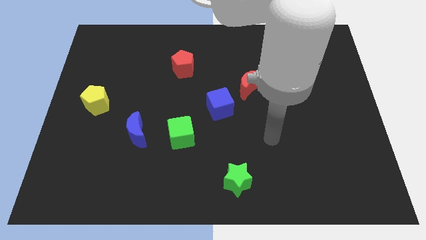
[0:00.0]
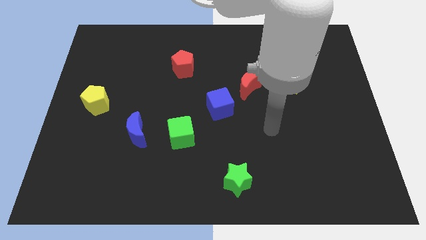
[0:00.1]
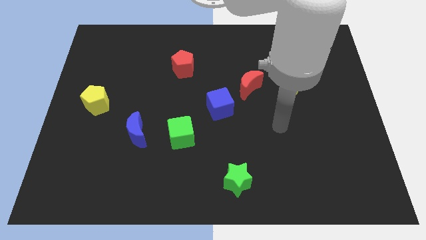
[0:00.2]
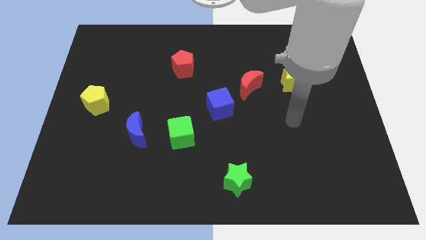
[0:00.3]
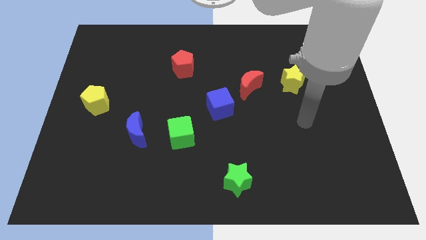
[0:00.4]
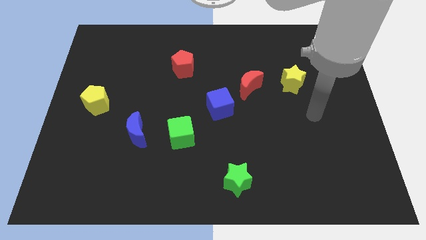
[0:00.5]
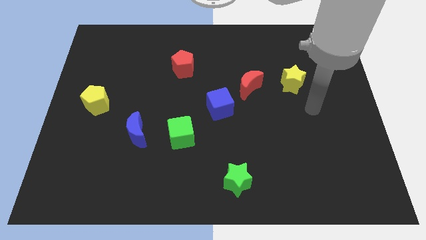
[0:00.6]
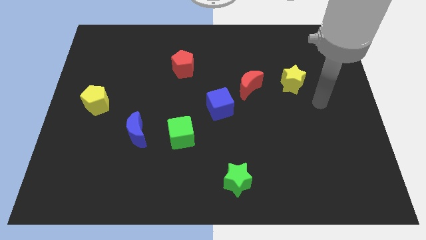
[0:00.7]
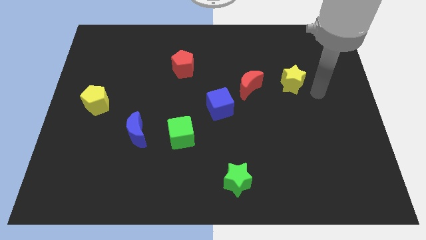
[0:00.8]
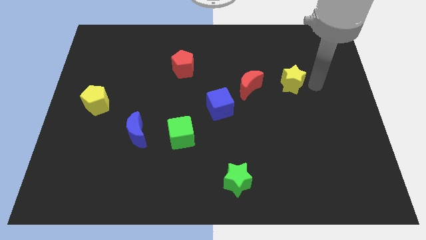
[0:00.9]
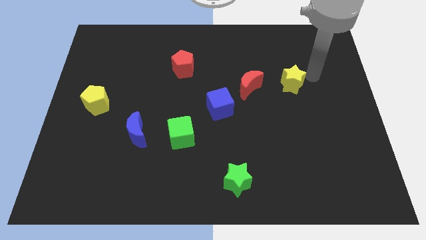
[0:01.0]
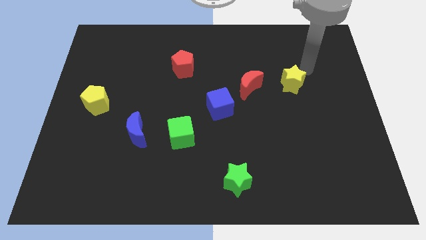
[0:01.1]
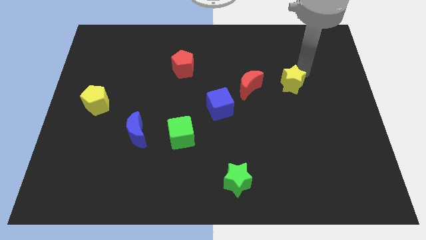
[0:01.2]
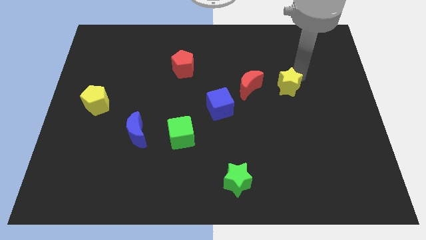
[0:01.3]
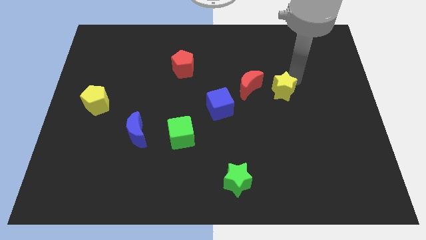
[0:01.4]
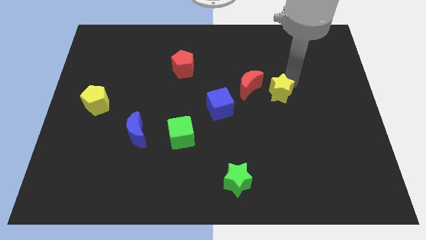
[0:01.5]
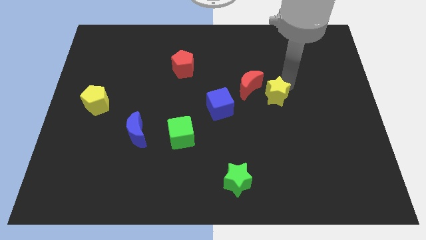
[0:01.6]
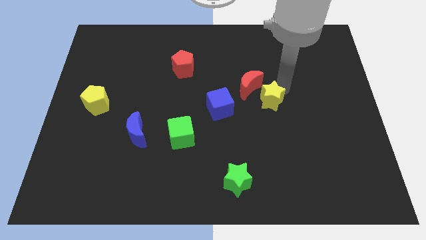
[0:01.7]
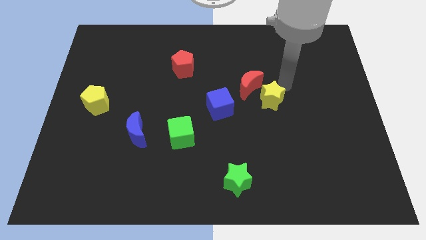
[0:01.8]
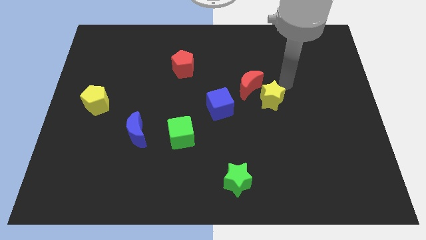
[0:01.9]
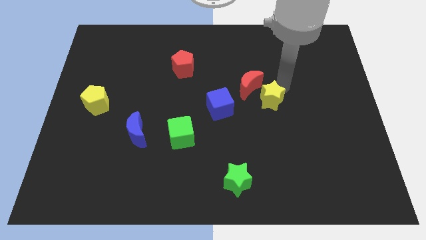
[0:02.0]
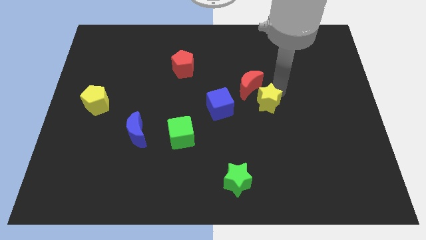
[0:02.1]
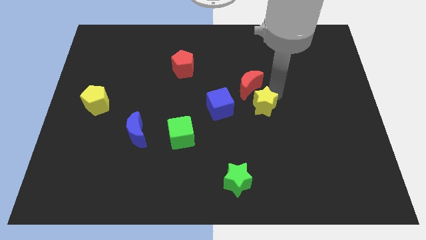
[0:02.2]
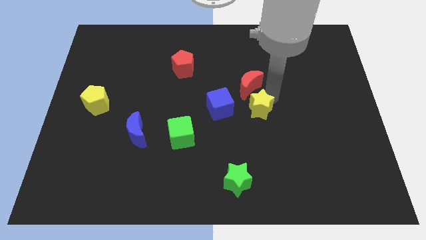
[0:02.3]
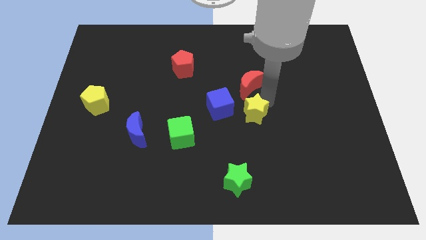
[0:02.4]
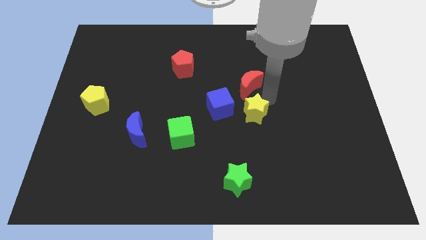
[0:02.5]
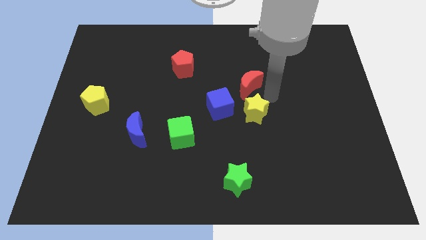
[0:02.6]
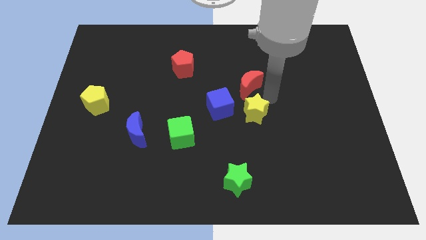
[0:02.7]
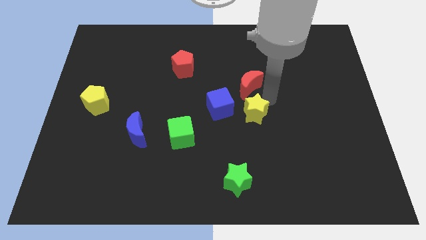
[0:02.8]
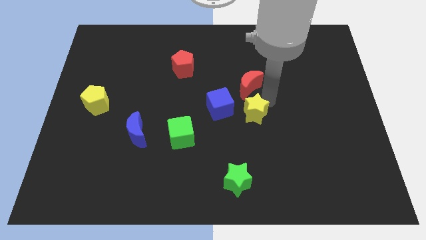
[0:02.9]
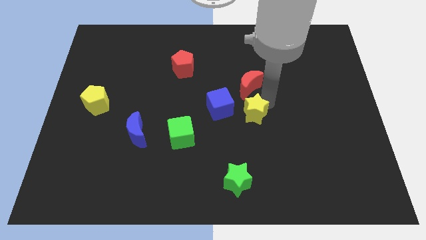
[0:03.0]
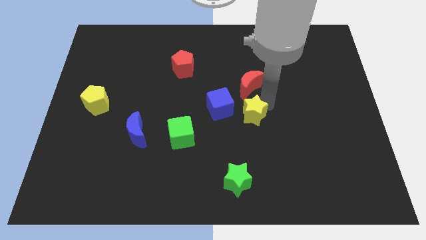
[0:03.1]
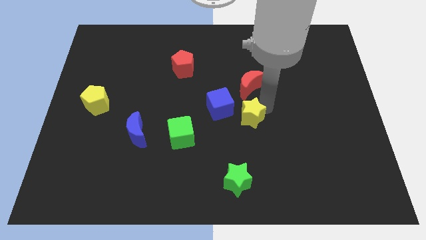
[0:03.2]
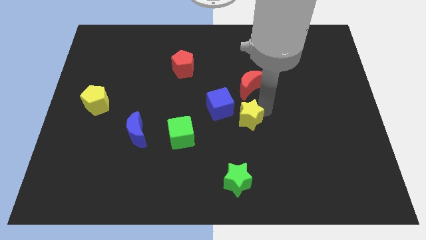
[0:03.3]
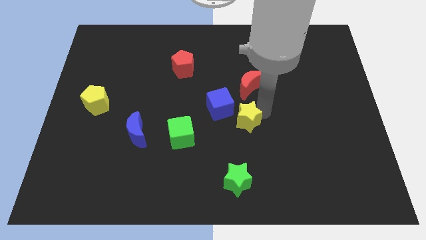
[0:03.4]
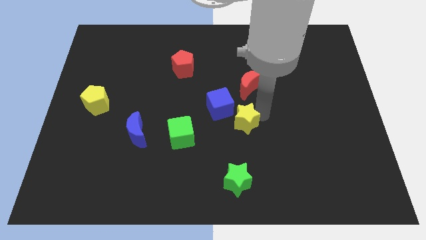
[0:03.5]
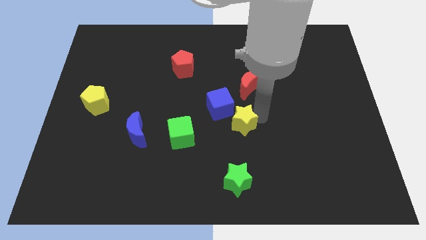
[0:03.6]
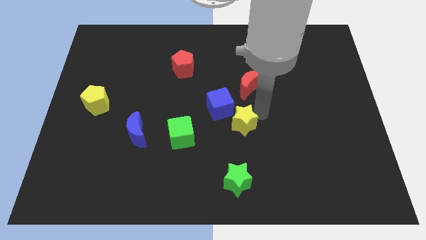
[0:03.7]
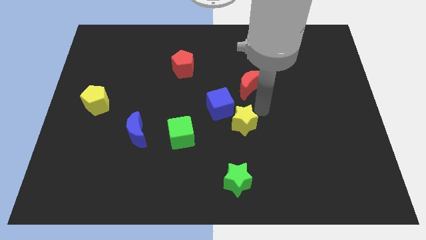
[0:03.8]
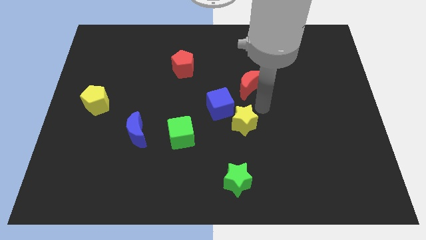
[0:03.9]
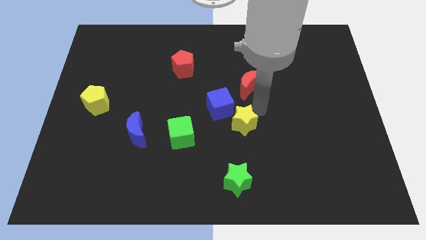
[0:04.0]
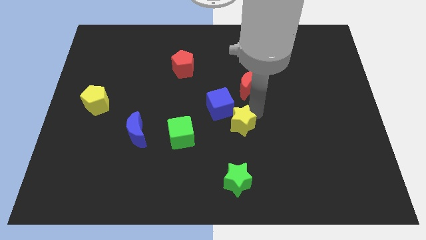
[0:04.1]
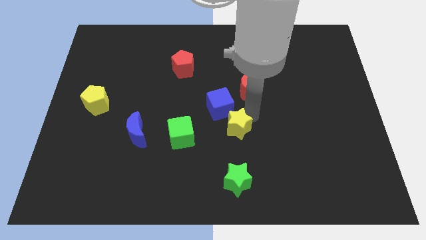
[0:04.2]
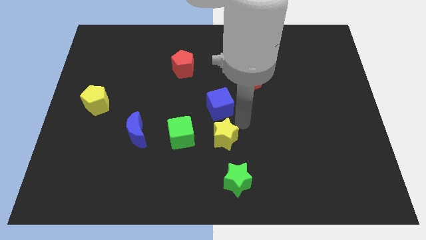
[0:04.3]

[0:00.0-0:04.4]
move the yellow star downwards and then to the left

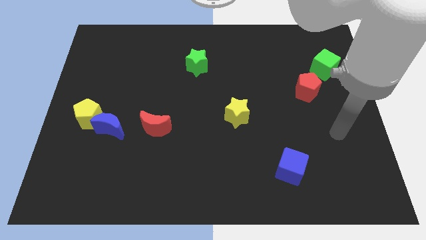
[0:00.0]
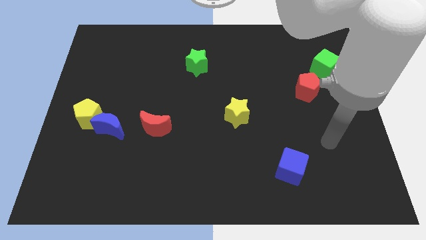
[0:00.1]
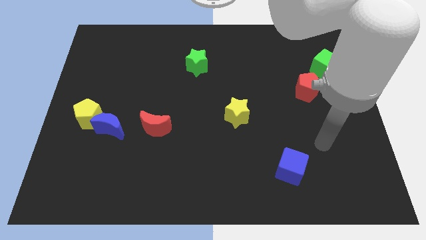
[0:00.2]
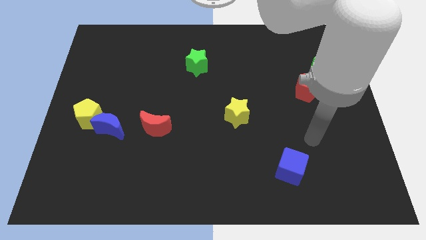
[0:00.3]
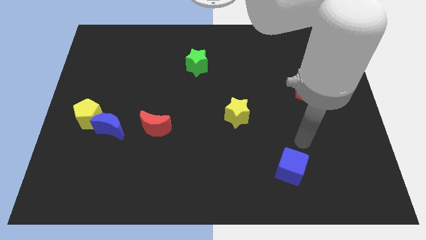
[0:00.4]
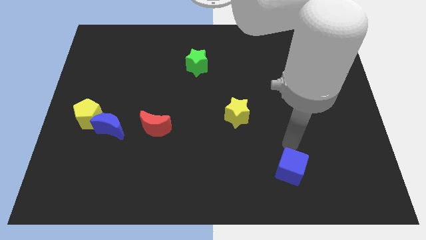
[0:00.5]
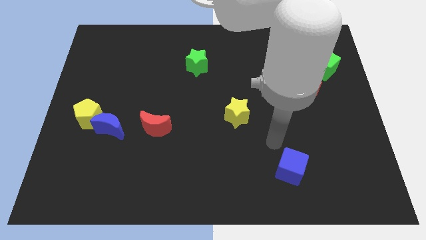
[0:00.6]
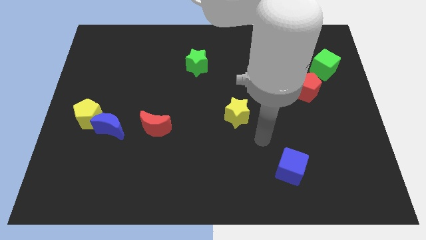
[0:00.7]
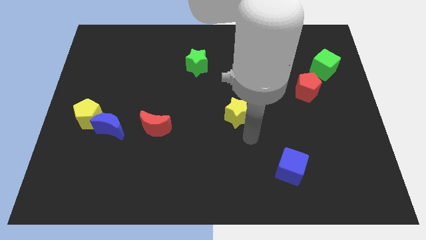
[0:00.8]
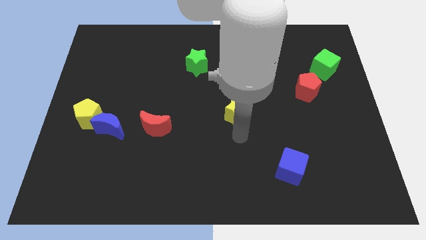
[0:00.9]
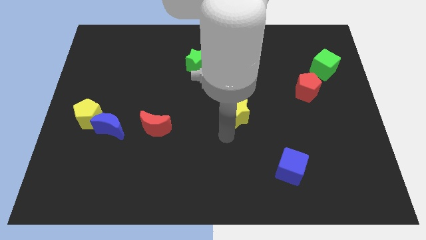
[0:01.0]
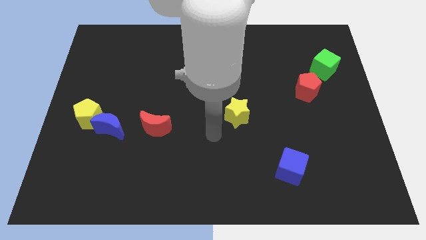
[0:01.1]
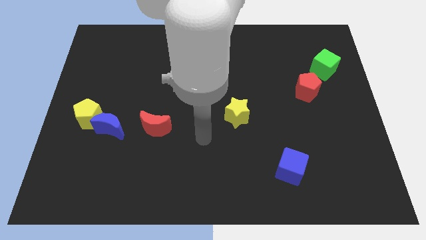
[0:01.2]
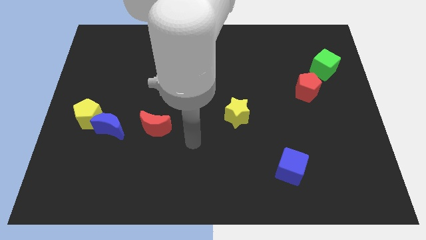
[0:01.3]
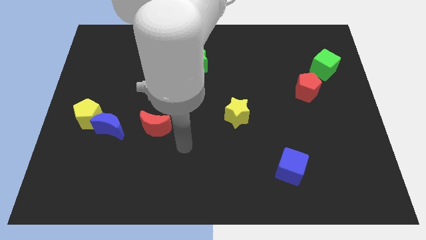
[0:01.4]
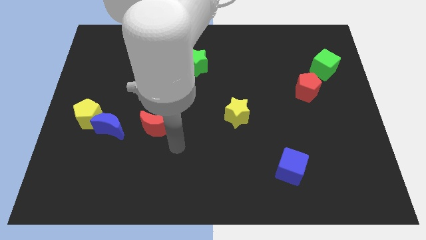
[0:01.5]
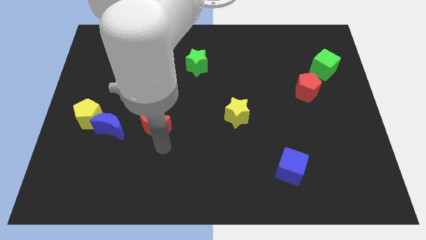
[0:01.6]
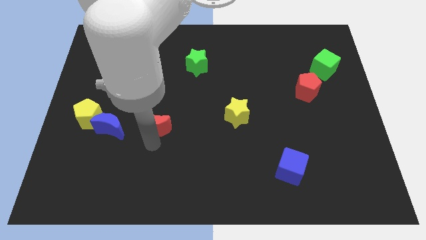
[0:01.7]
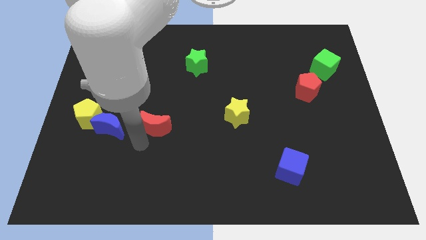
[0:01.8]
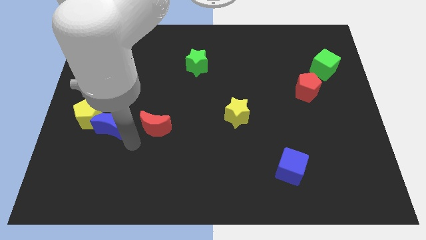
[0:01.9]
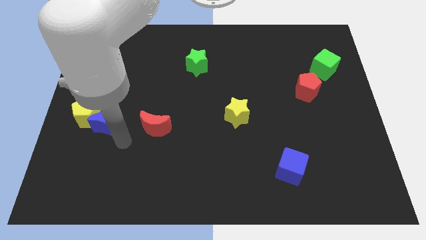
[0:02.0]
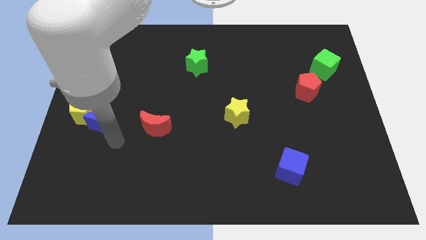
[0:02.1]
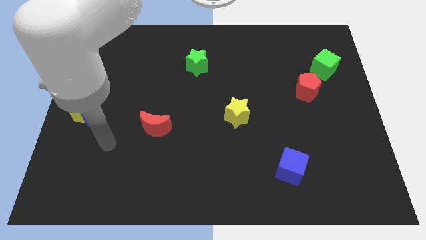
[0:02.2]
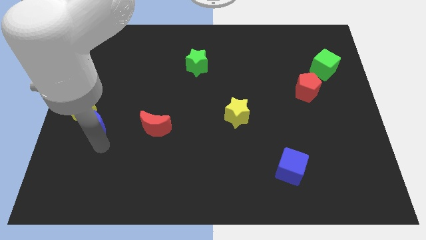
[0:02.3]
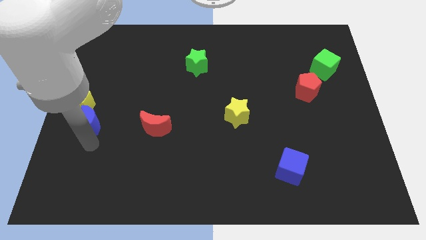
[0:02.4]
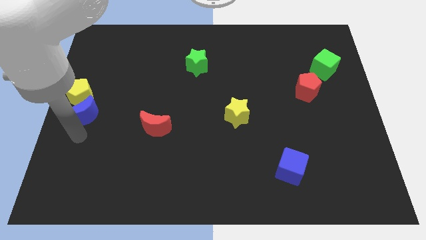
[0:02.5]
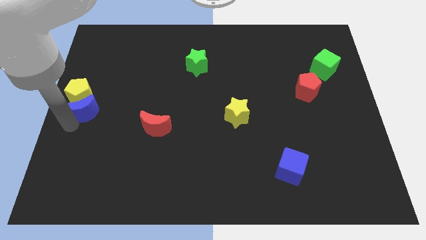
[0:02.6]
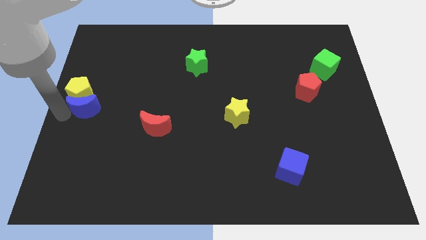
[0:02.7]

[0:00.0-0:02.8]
slide the yellow pentagon a little upwards

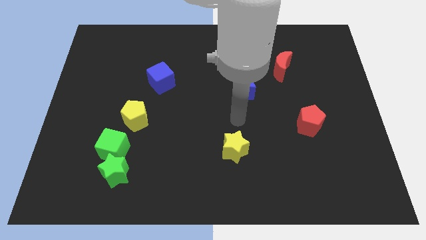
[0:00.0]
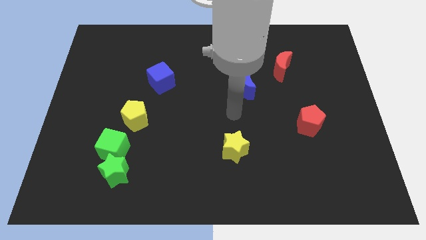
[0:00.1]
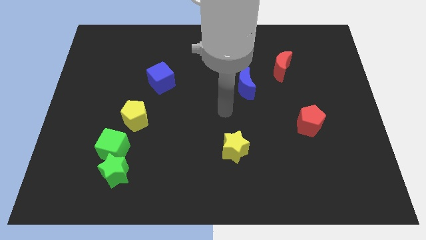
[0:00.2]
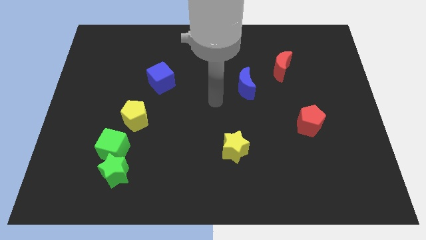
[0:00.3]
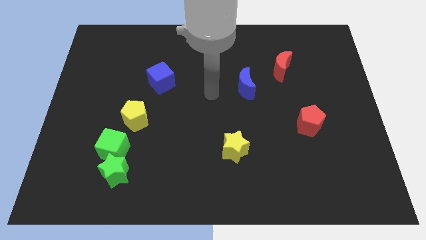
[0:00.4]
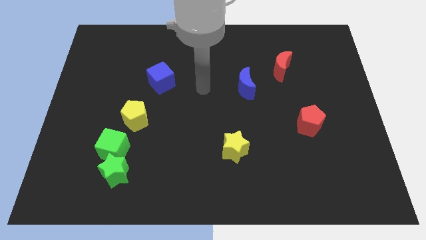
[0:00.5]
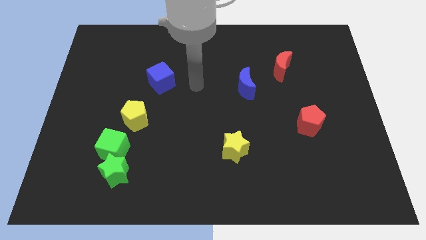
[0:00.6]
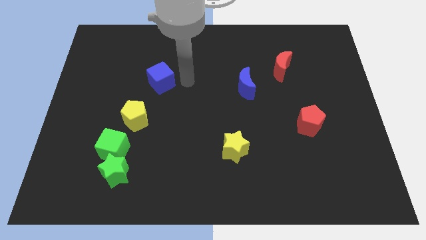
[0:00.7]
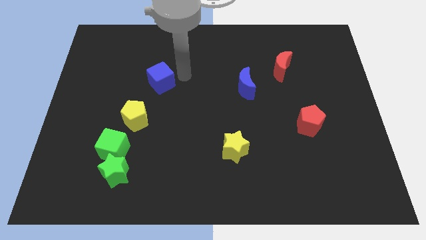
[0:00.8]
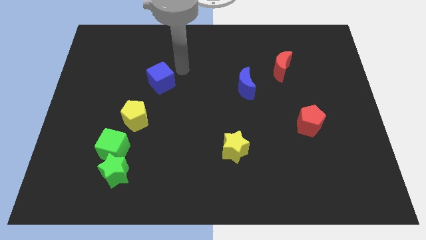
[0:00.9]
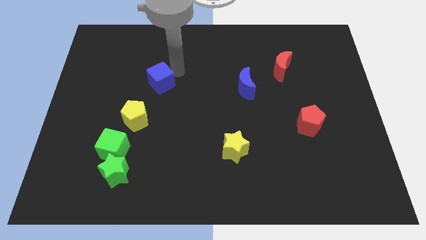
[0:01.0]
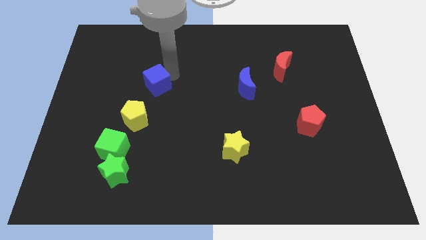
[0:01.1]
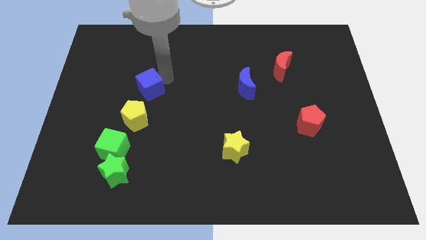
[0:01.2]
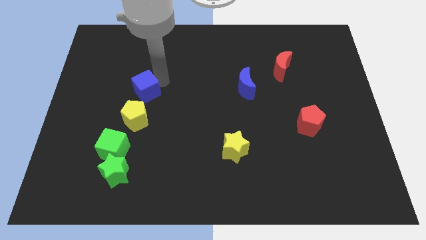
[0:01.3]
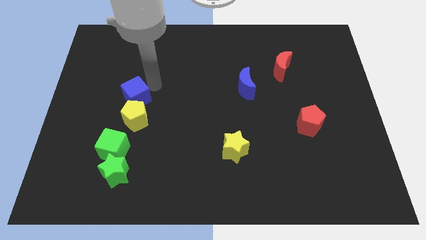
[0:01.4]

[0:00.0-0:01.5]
push the blue cube a little bit diagonally down and left
